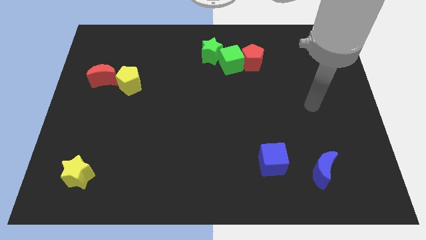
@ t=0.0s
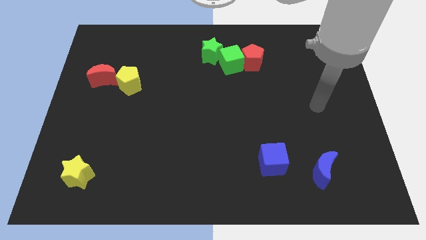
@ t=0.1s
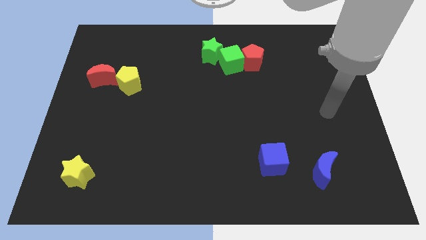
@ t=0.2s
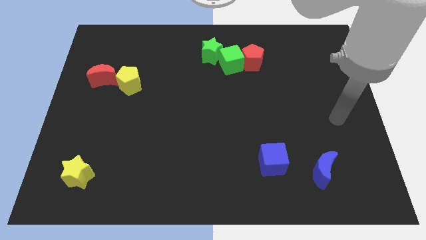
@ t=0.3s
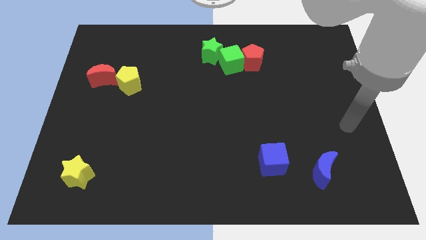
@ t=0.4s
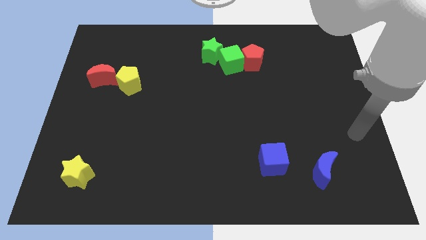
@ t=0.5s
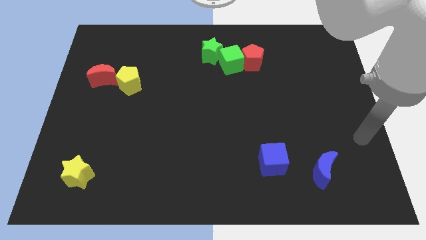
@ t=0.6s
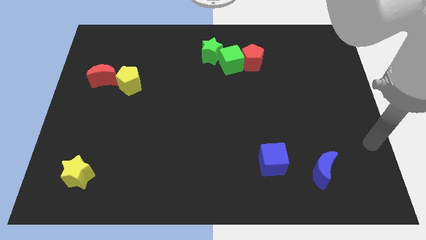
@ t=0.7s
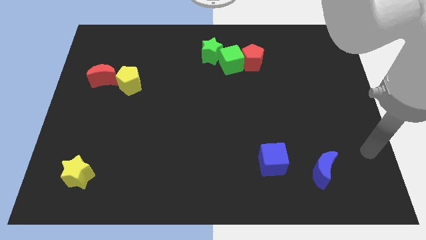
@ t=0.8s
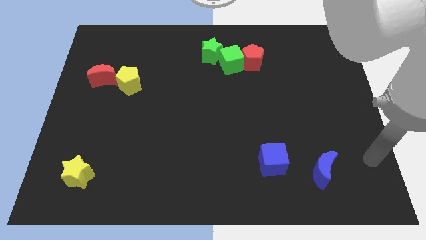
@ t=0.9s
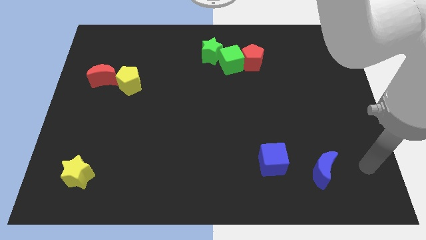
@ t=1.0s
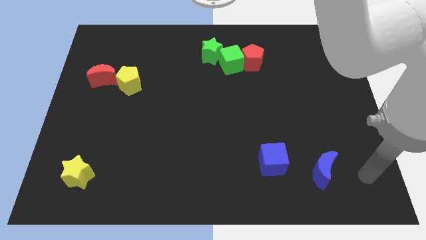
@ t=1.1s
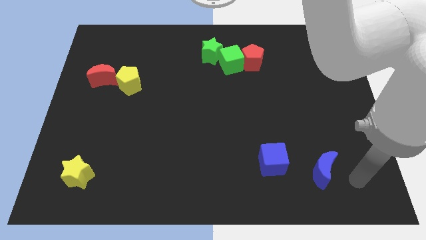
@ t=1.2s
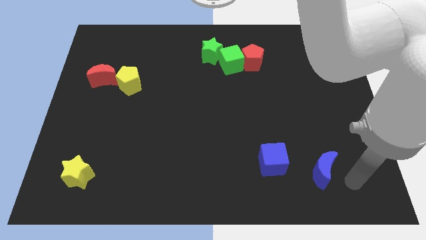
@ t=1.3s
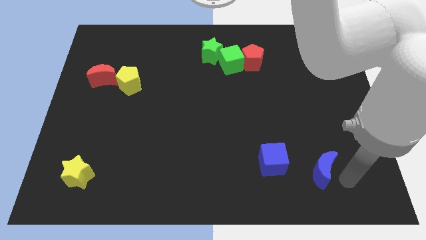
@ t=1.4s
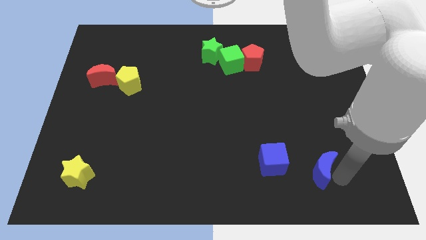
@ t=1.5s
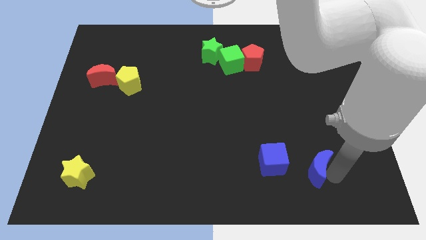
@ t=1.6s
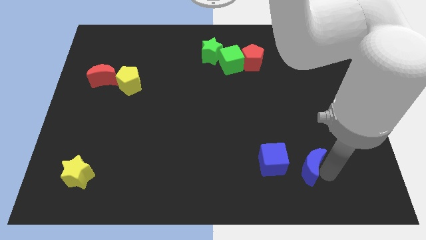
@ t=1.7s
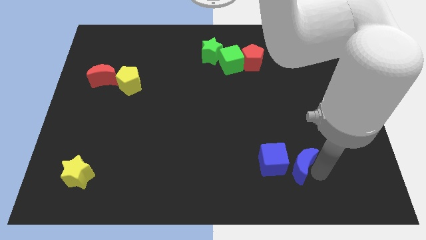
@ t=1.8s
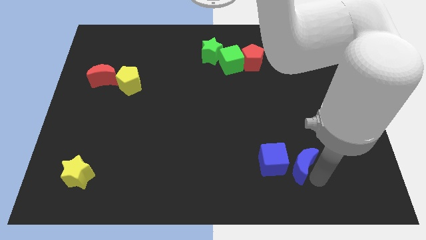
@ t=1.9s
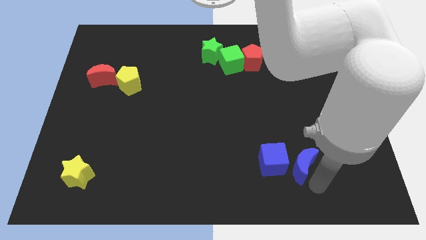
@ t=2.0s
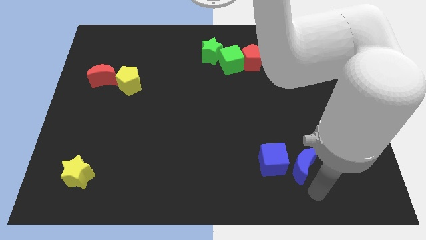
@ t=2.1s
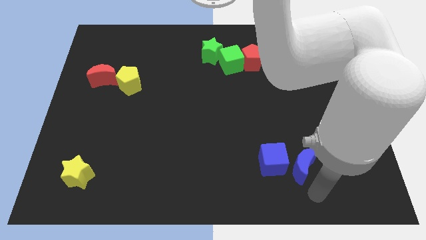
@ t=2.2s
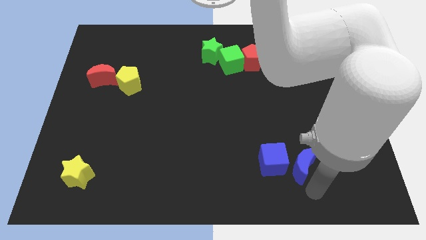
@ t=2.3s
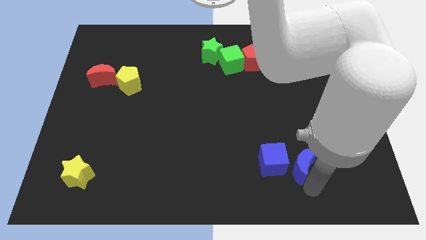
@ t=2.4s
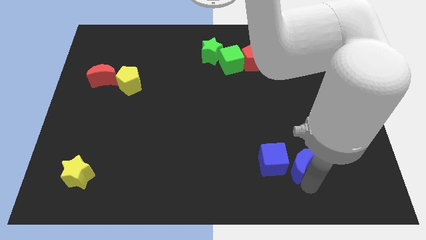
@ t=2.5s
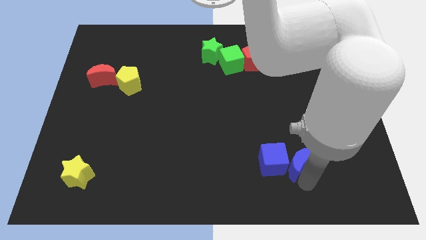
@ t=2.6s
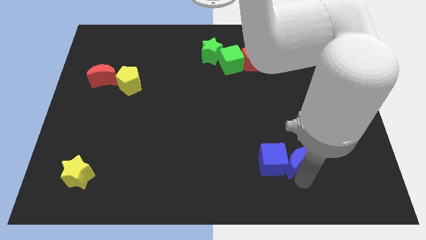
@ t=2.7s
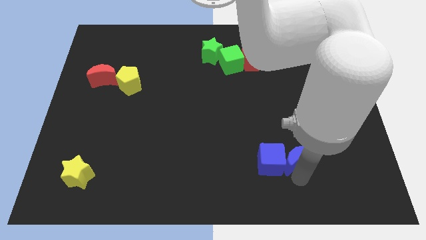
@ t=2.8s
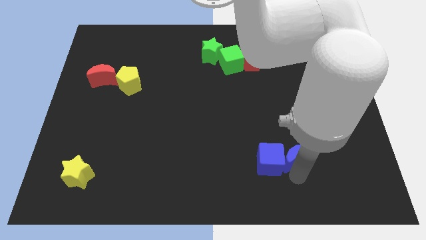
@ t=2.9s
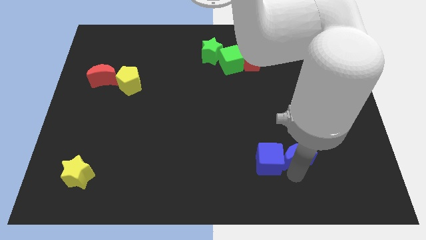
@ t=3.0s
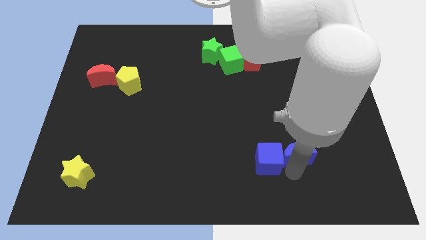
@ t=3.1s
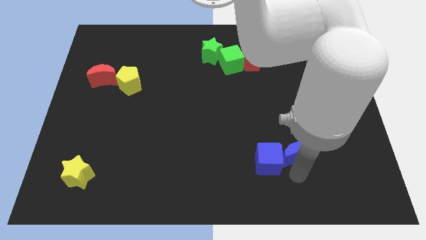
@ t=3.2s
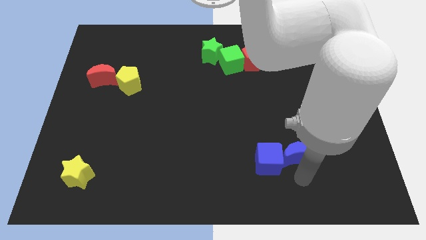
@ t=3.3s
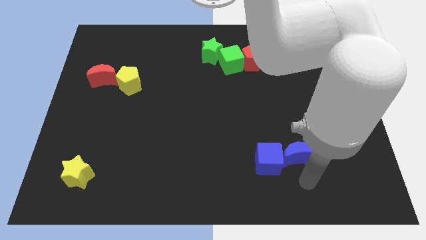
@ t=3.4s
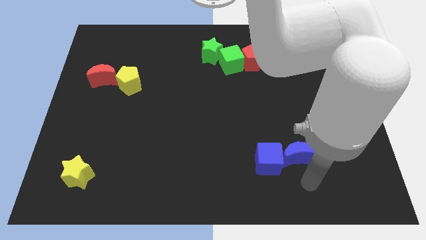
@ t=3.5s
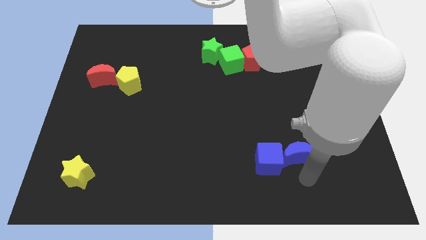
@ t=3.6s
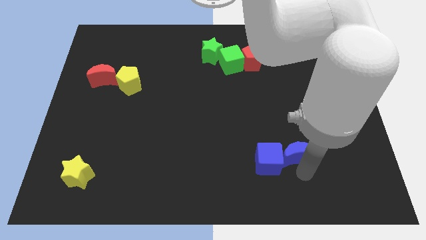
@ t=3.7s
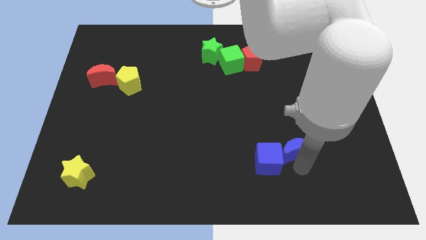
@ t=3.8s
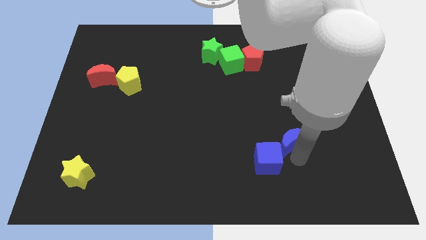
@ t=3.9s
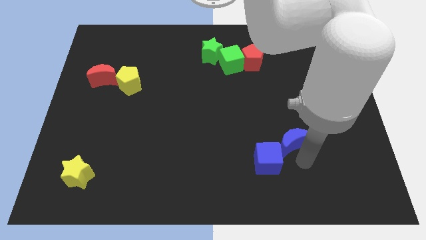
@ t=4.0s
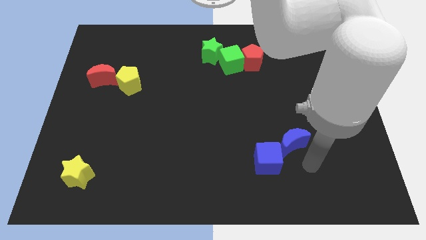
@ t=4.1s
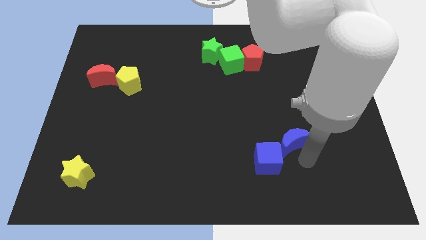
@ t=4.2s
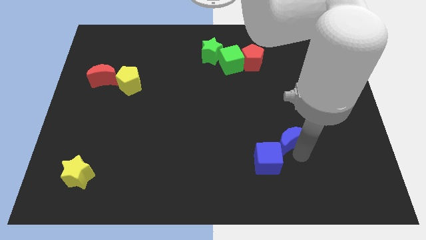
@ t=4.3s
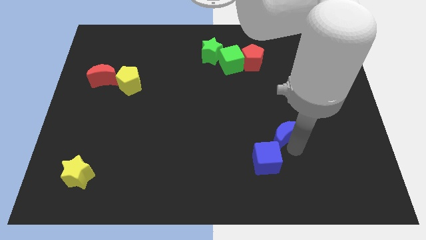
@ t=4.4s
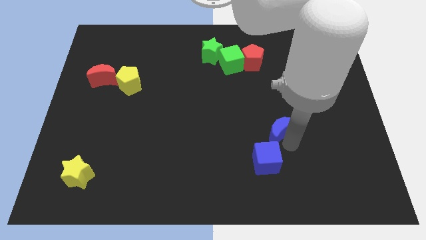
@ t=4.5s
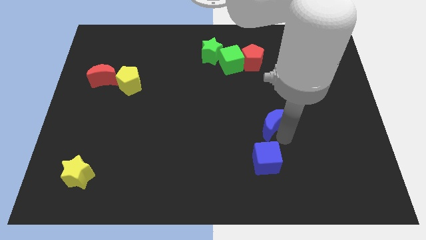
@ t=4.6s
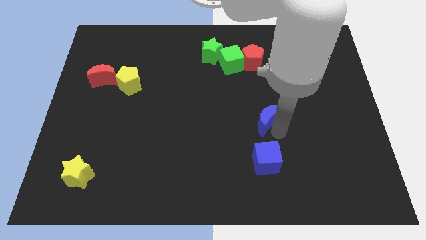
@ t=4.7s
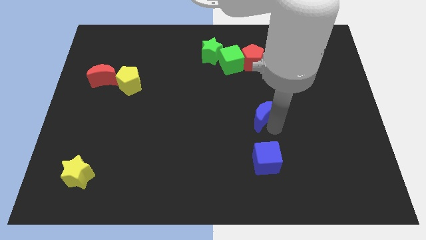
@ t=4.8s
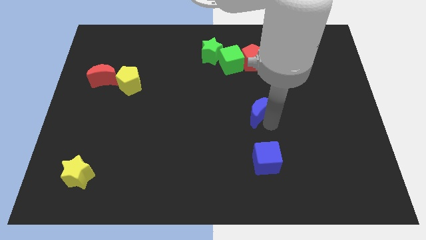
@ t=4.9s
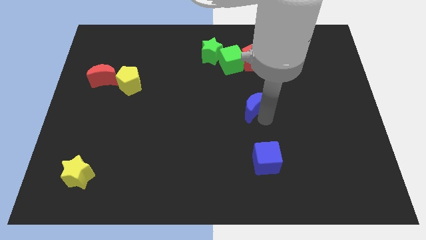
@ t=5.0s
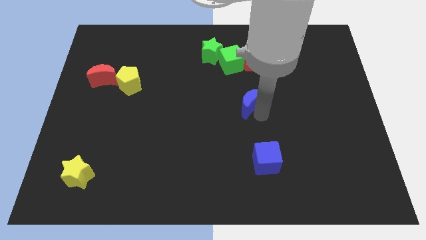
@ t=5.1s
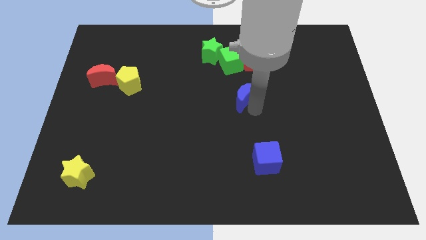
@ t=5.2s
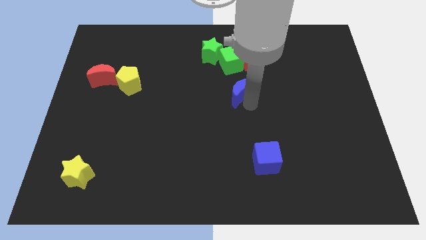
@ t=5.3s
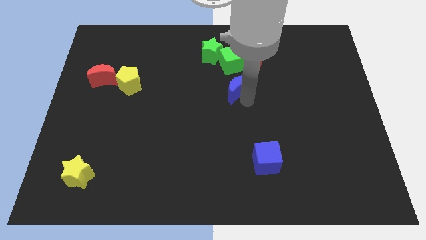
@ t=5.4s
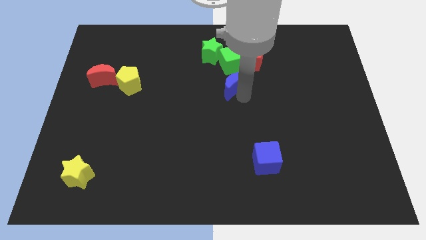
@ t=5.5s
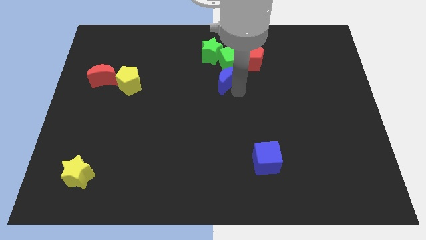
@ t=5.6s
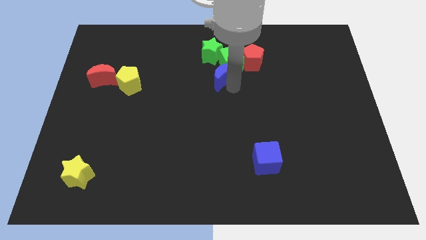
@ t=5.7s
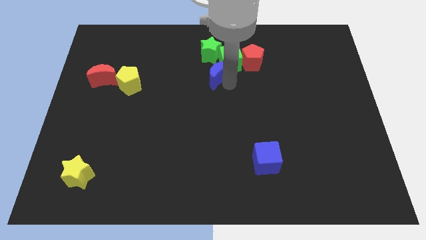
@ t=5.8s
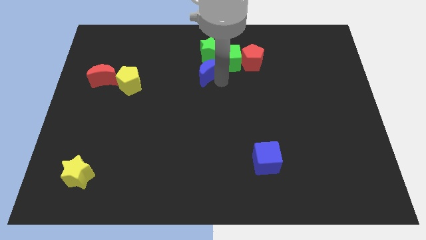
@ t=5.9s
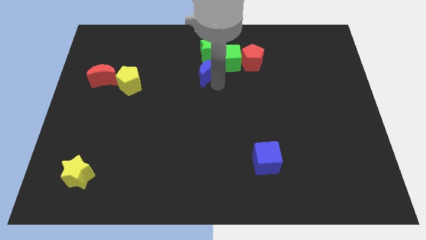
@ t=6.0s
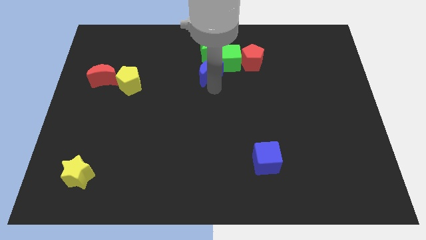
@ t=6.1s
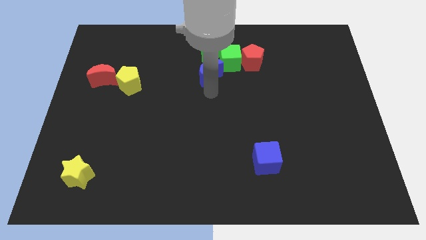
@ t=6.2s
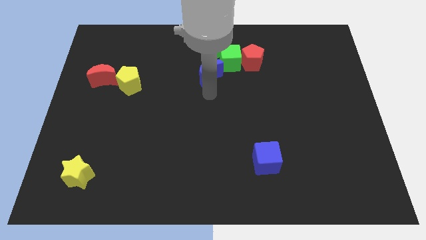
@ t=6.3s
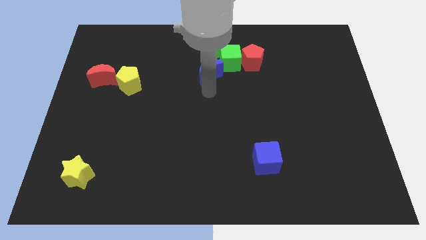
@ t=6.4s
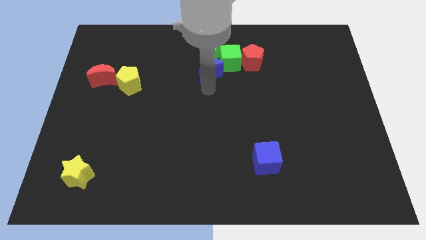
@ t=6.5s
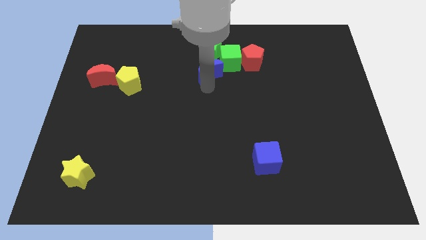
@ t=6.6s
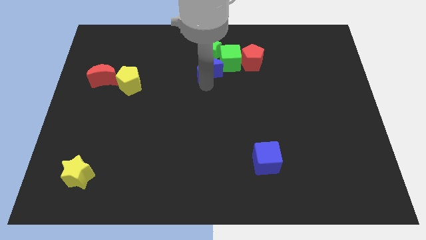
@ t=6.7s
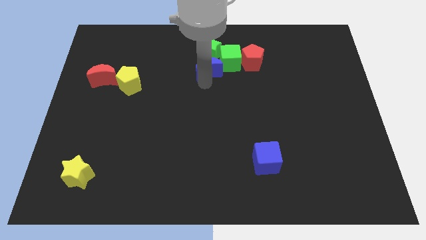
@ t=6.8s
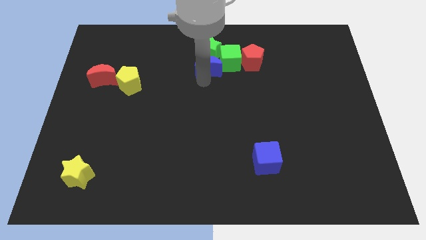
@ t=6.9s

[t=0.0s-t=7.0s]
put the blue moon close to the green star
